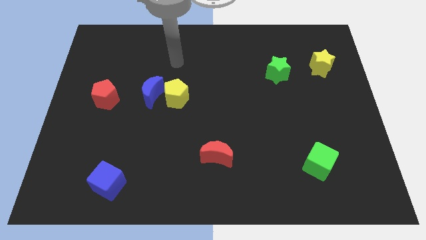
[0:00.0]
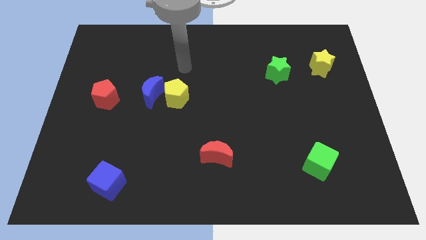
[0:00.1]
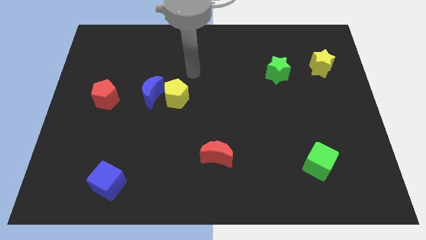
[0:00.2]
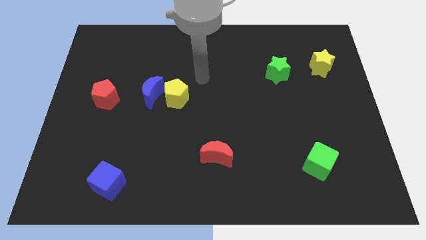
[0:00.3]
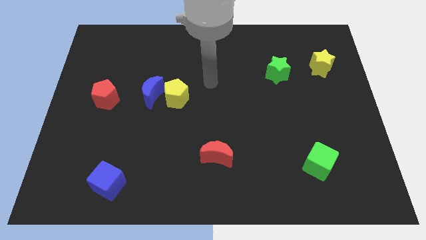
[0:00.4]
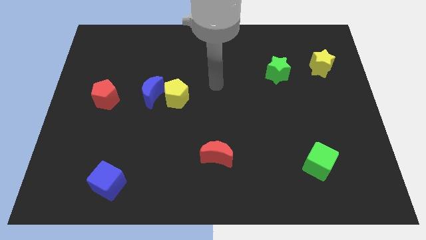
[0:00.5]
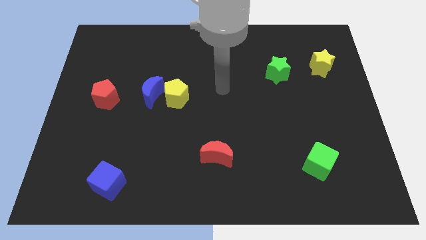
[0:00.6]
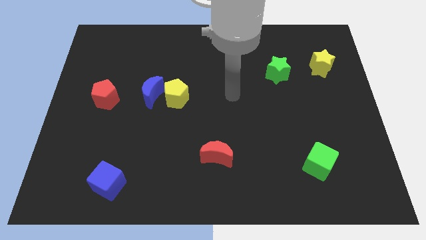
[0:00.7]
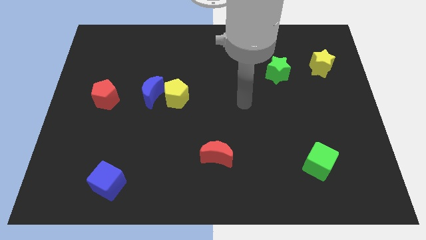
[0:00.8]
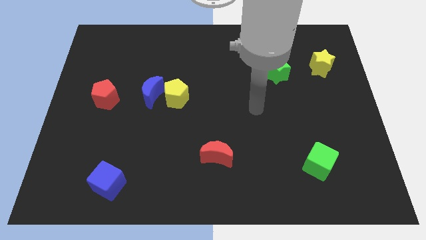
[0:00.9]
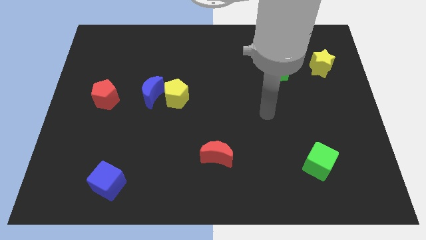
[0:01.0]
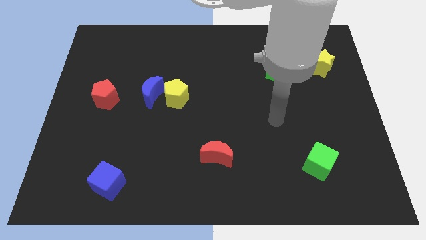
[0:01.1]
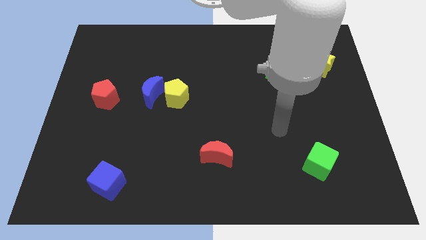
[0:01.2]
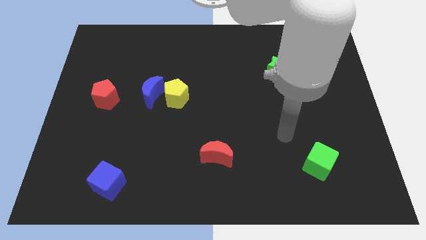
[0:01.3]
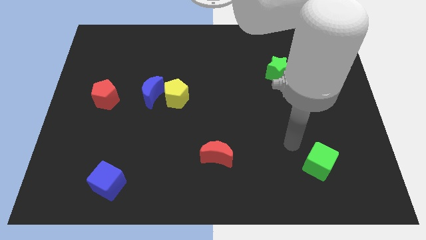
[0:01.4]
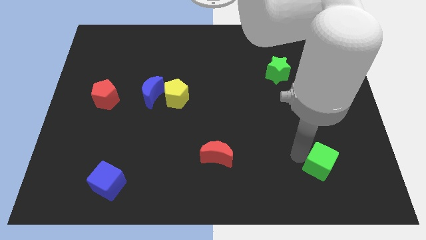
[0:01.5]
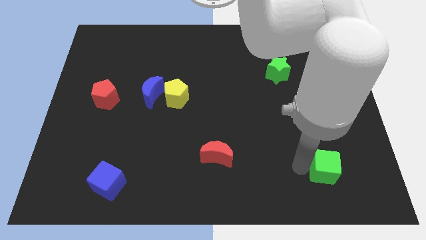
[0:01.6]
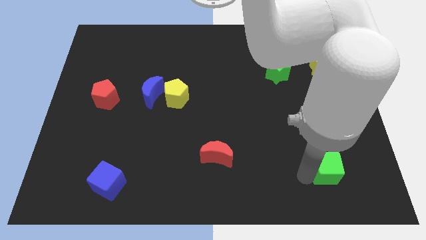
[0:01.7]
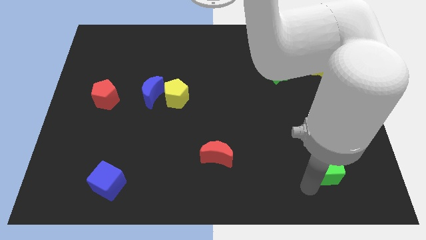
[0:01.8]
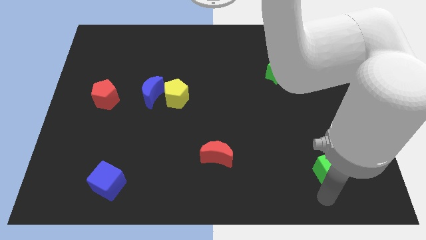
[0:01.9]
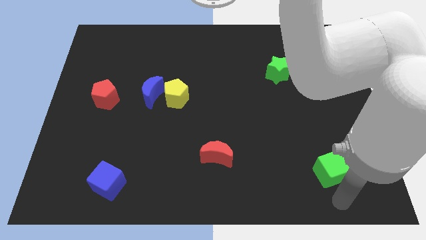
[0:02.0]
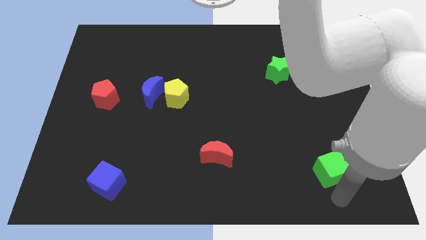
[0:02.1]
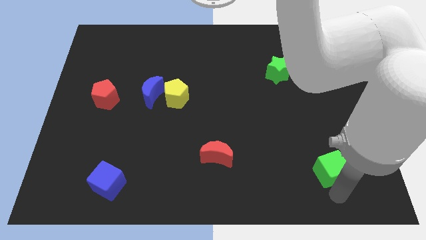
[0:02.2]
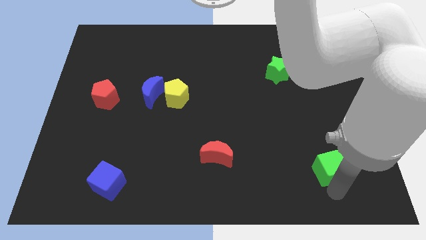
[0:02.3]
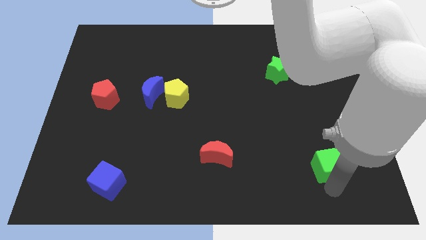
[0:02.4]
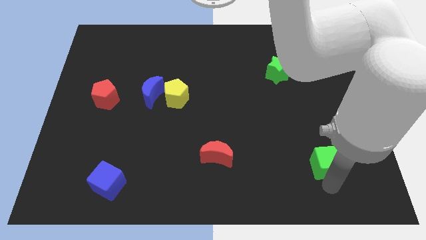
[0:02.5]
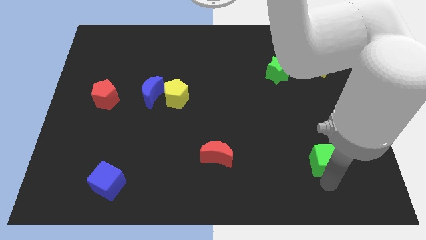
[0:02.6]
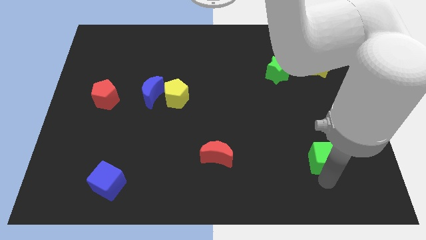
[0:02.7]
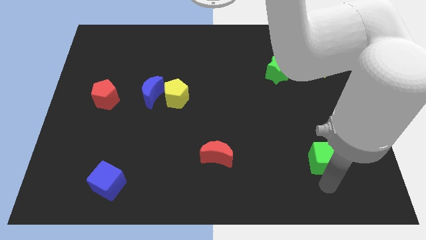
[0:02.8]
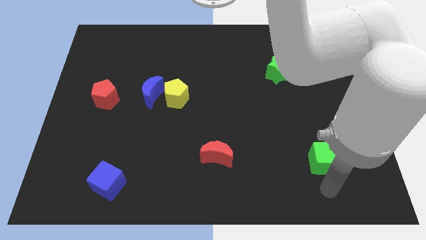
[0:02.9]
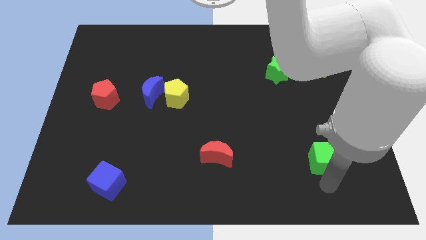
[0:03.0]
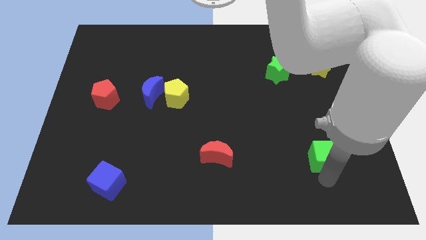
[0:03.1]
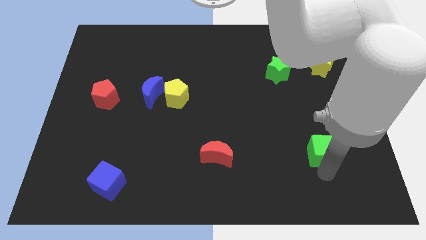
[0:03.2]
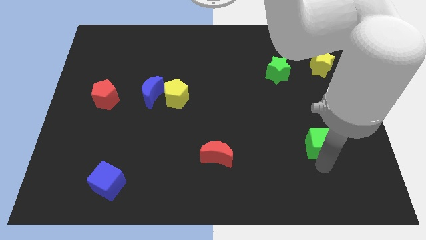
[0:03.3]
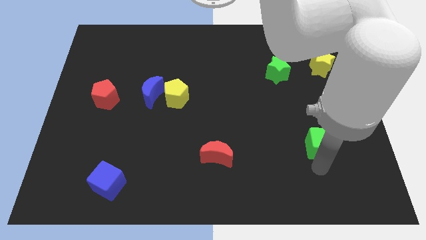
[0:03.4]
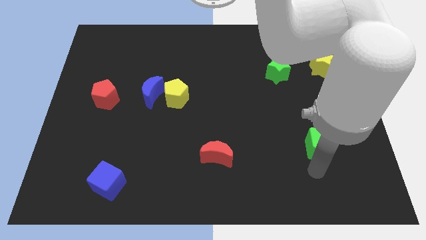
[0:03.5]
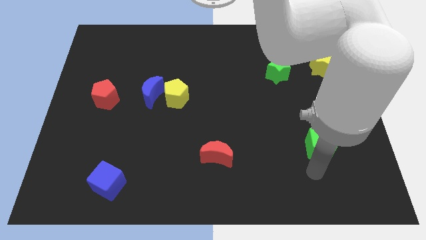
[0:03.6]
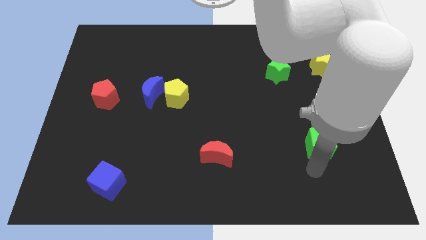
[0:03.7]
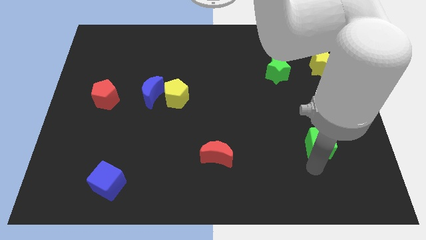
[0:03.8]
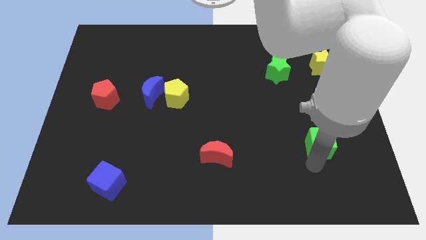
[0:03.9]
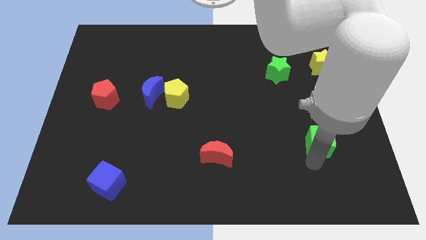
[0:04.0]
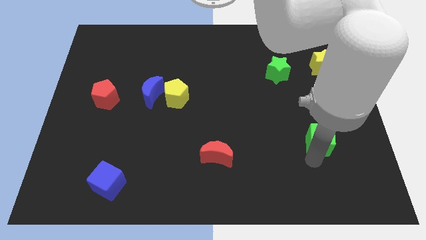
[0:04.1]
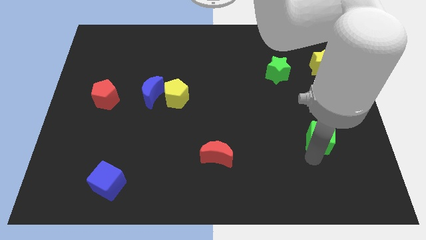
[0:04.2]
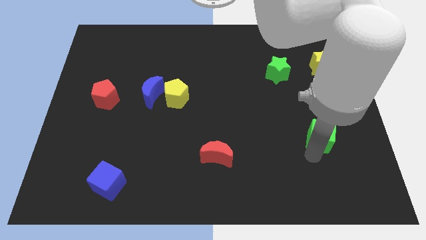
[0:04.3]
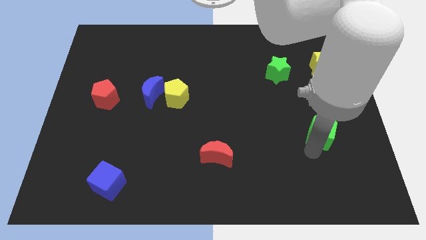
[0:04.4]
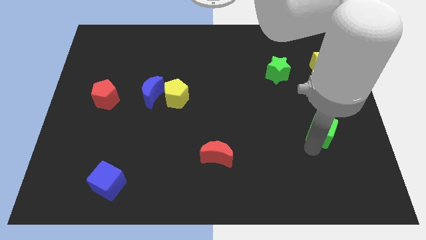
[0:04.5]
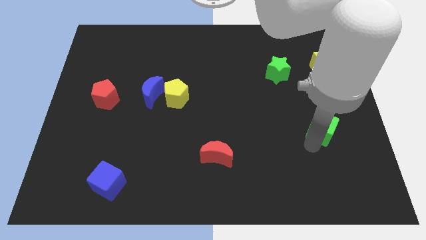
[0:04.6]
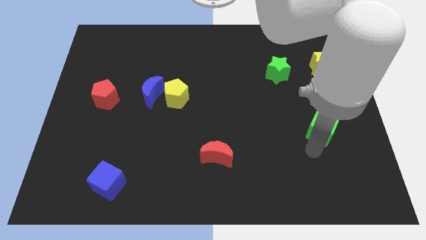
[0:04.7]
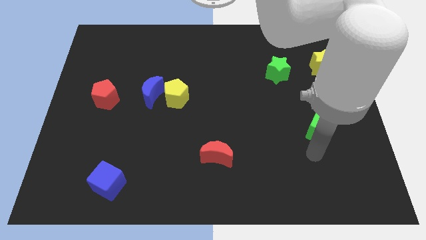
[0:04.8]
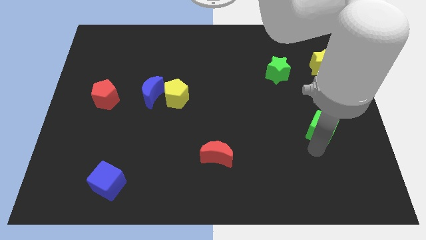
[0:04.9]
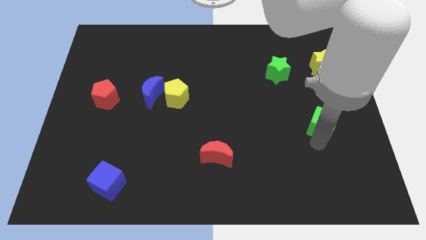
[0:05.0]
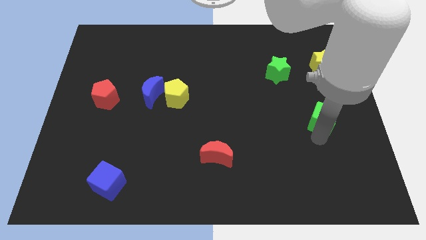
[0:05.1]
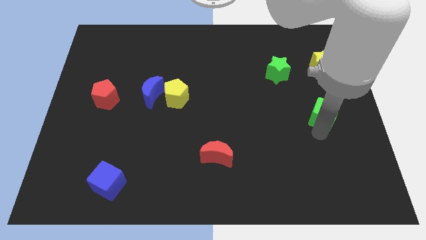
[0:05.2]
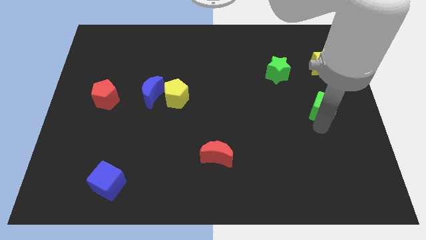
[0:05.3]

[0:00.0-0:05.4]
slide the green cube to the bottom side of the yellow star

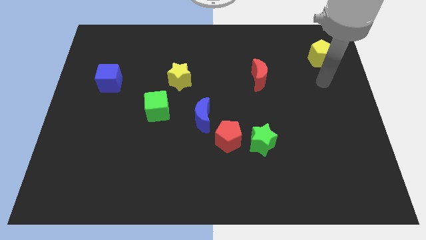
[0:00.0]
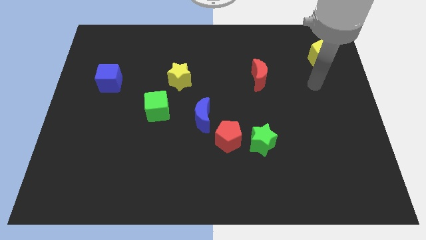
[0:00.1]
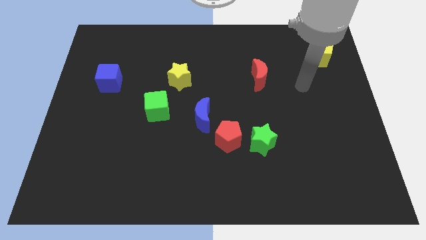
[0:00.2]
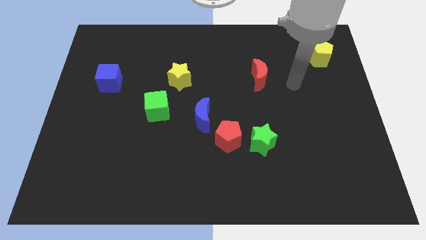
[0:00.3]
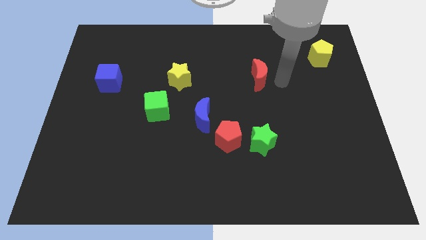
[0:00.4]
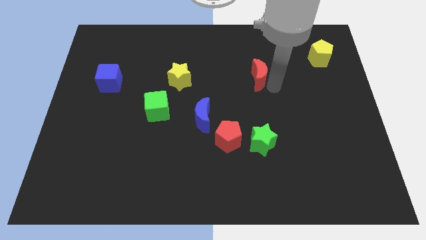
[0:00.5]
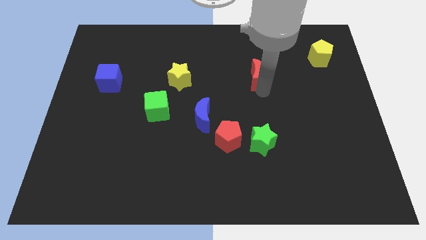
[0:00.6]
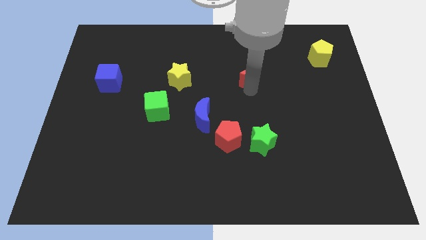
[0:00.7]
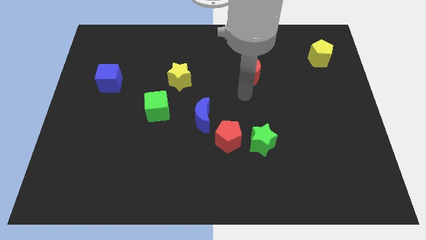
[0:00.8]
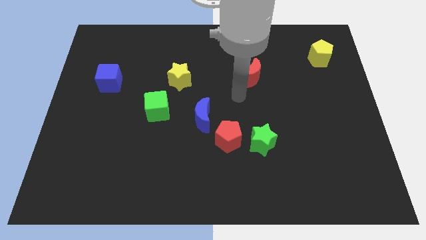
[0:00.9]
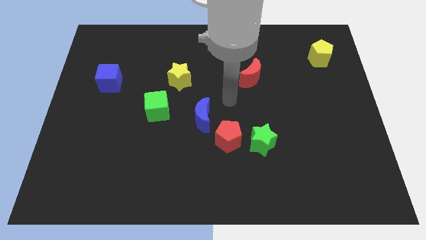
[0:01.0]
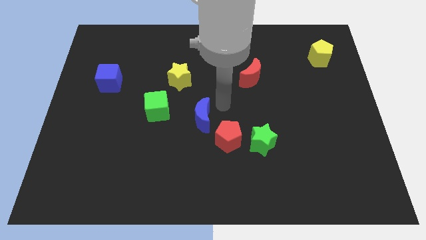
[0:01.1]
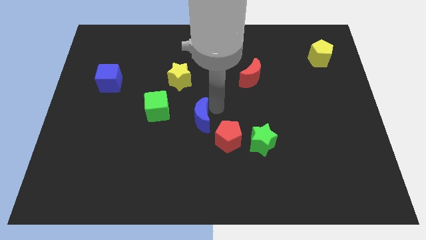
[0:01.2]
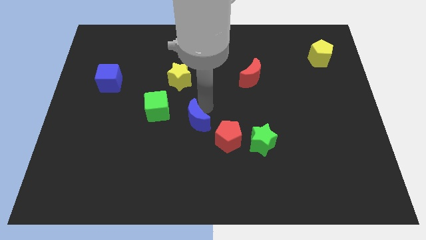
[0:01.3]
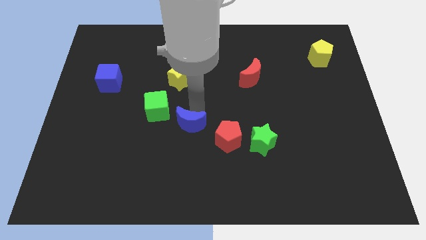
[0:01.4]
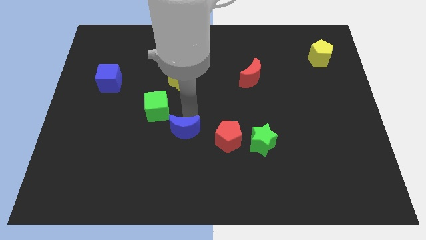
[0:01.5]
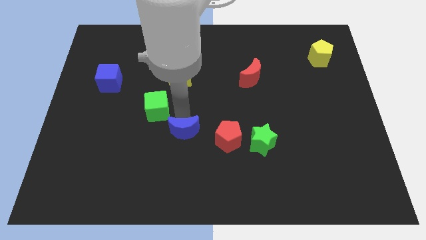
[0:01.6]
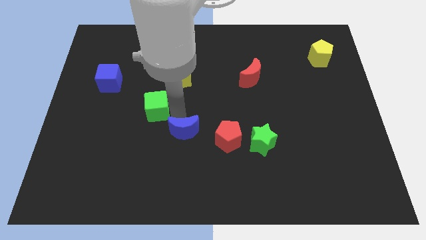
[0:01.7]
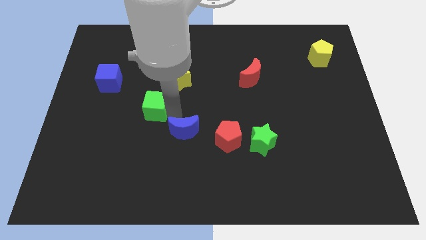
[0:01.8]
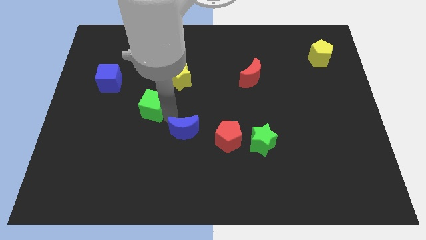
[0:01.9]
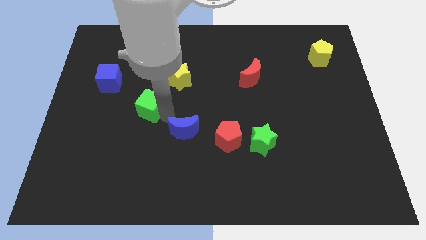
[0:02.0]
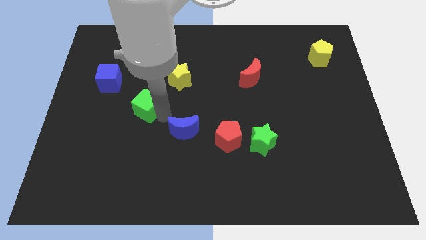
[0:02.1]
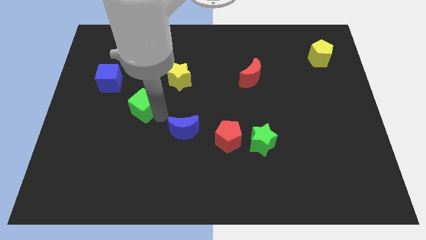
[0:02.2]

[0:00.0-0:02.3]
put the green cube diagonally down and to the right of the blue cube
